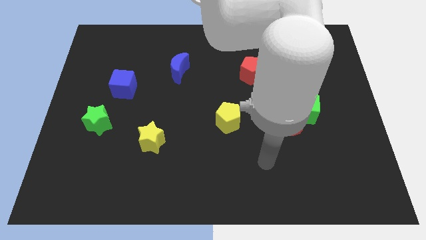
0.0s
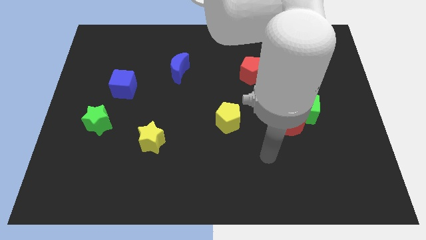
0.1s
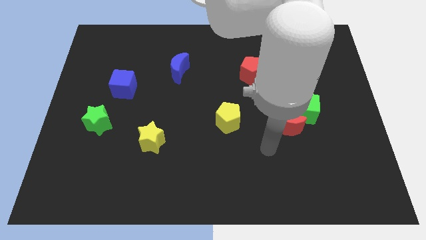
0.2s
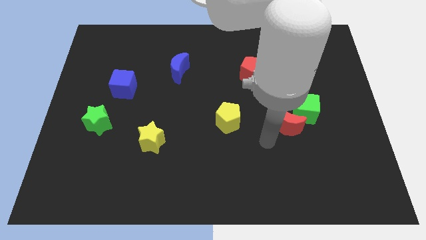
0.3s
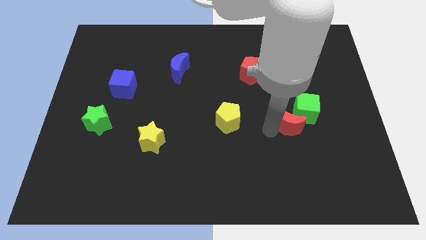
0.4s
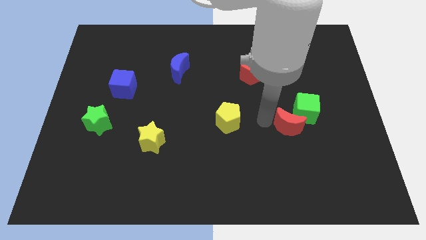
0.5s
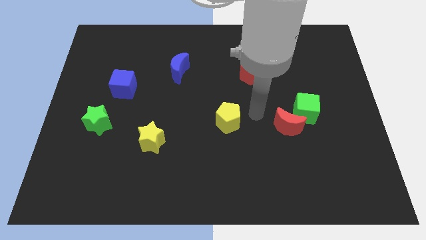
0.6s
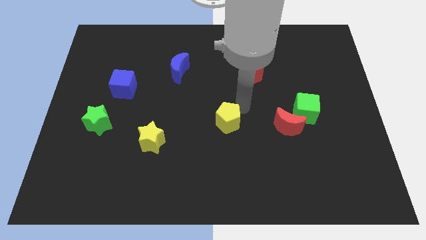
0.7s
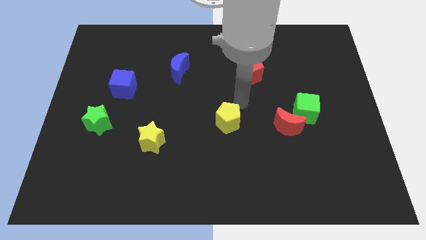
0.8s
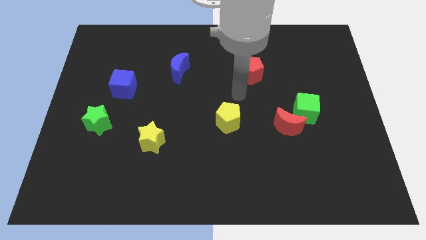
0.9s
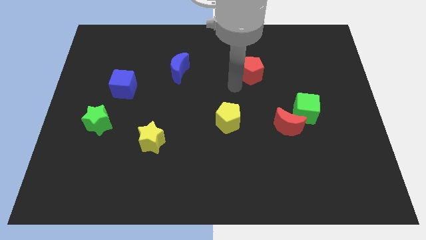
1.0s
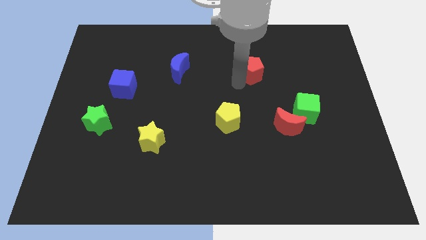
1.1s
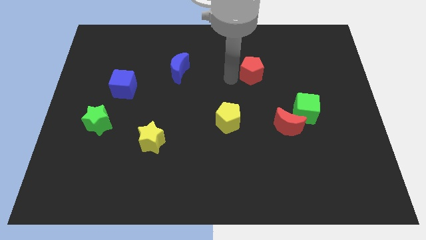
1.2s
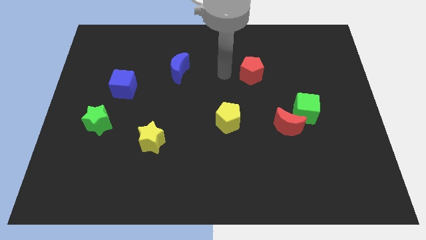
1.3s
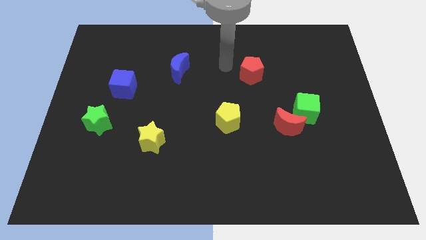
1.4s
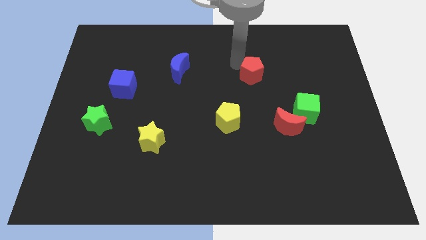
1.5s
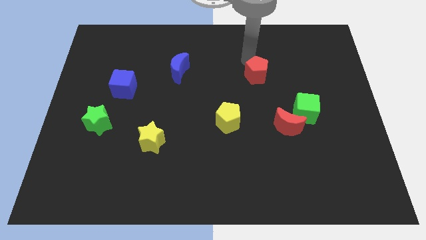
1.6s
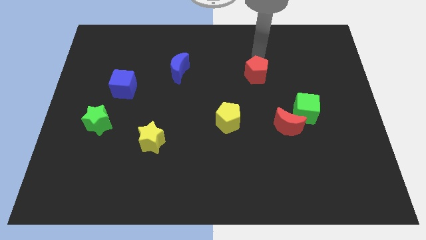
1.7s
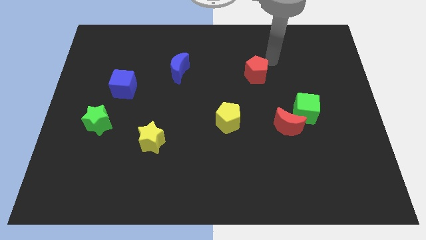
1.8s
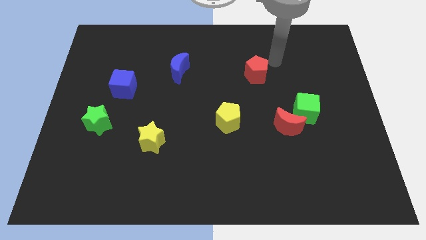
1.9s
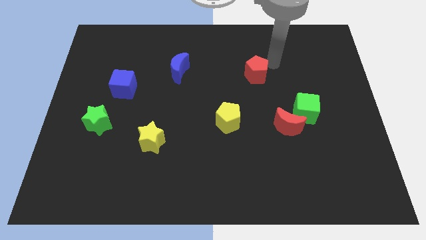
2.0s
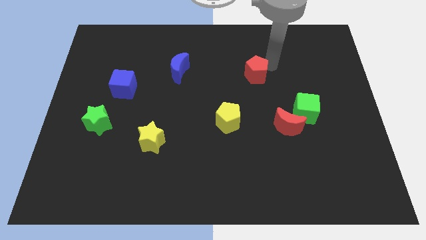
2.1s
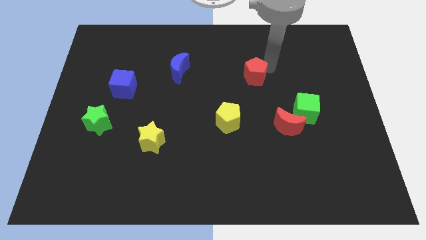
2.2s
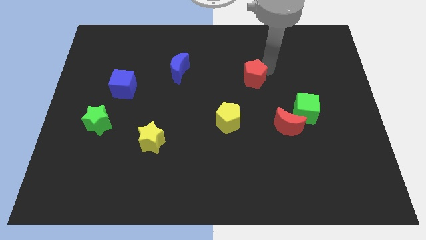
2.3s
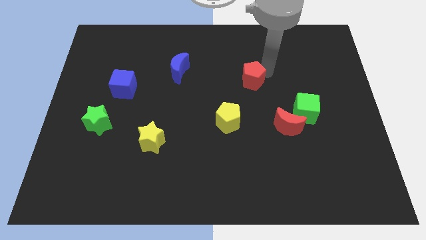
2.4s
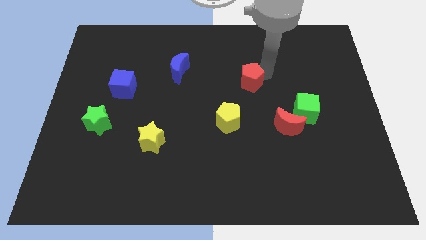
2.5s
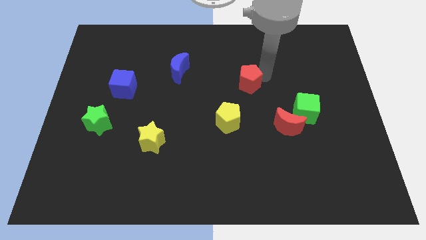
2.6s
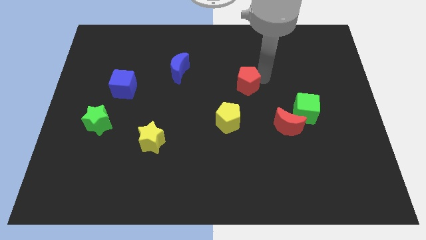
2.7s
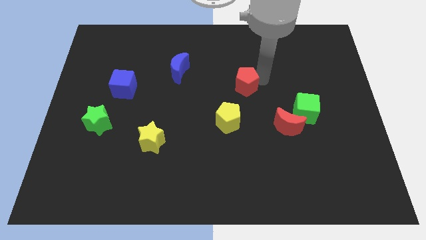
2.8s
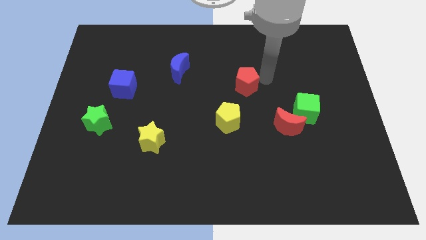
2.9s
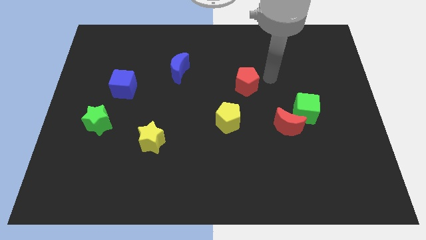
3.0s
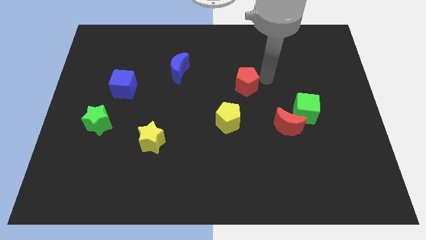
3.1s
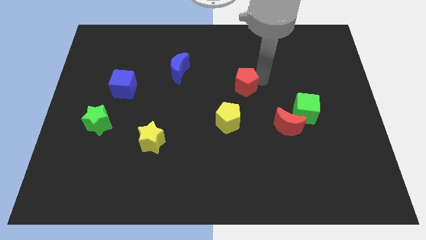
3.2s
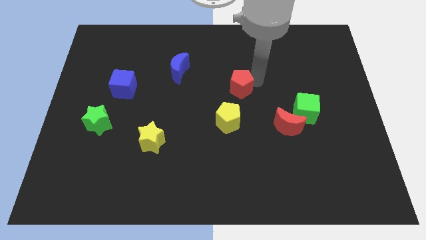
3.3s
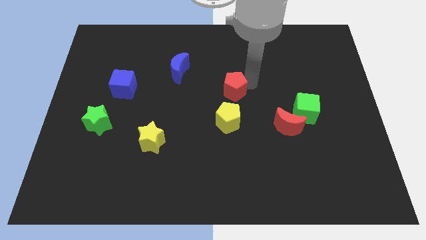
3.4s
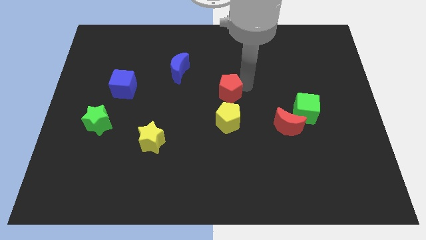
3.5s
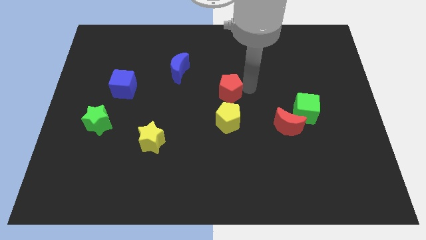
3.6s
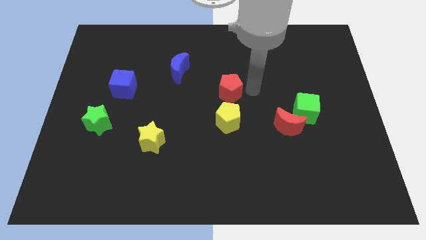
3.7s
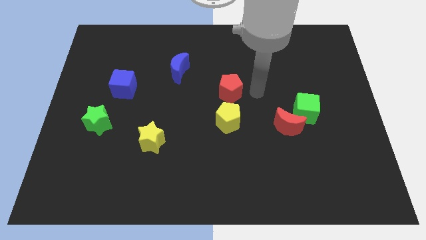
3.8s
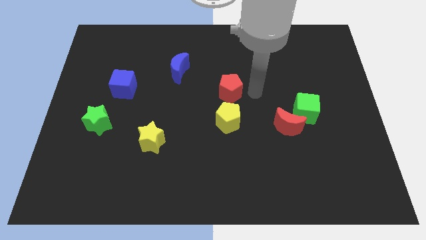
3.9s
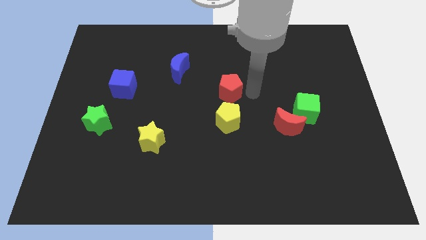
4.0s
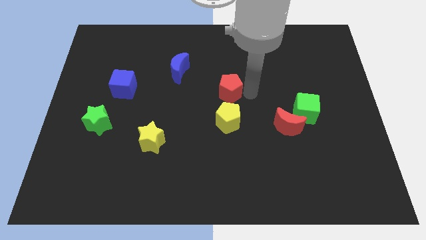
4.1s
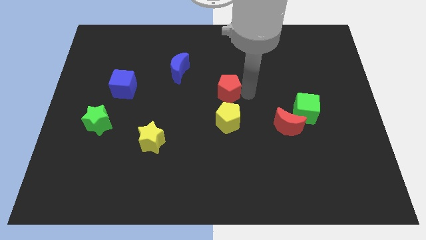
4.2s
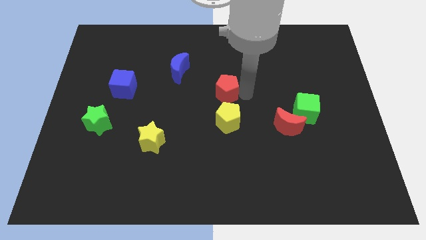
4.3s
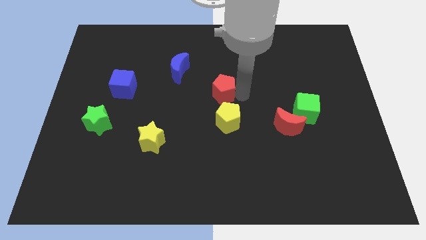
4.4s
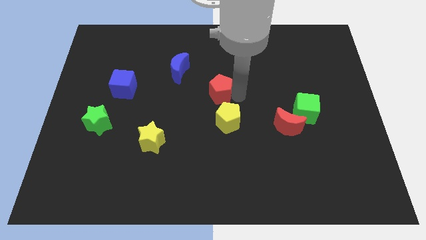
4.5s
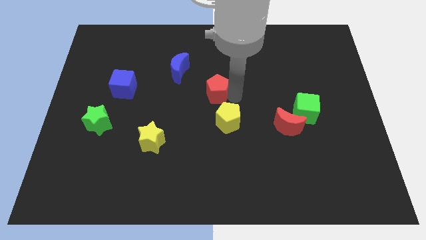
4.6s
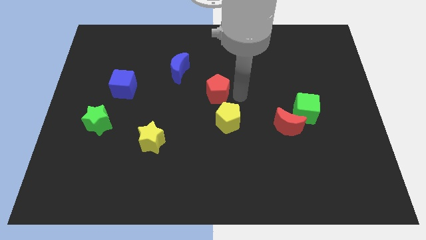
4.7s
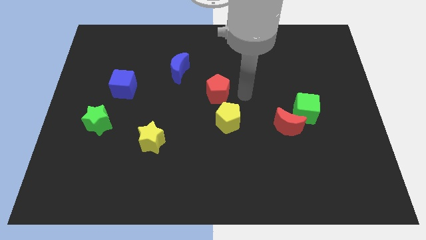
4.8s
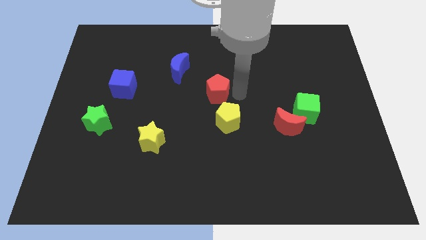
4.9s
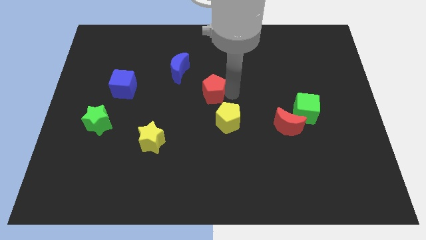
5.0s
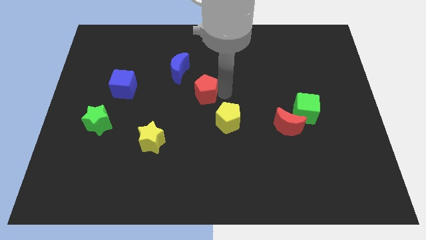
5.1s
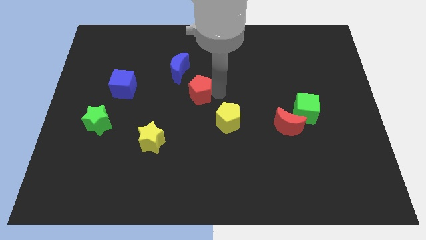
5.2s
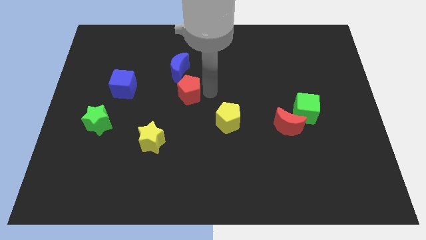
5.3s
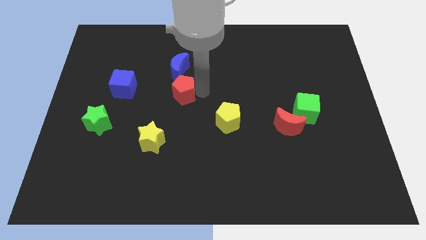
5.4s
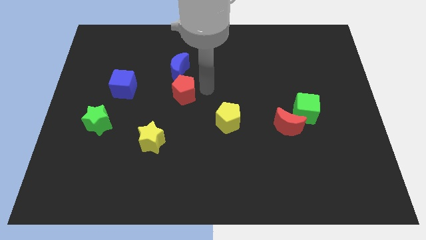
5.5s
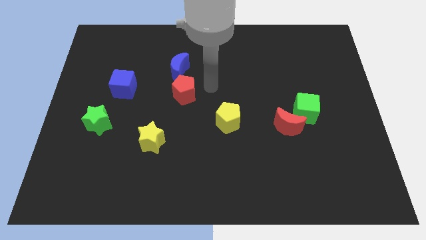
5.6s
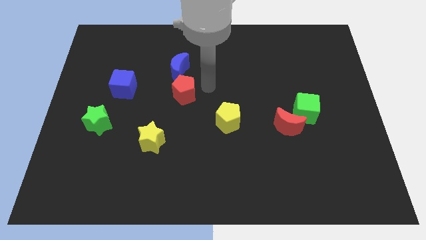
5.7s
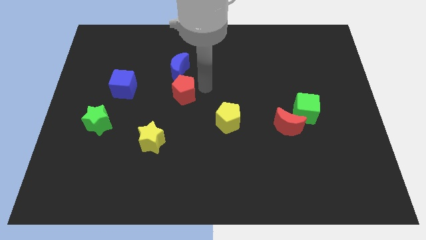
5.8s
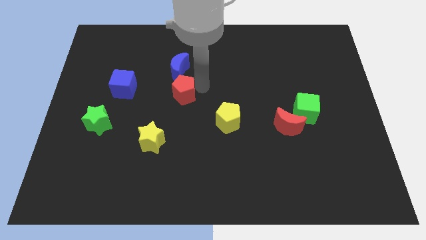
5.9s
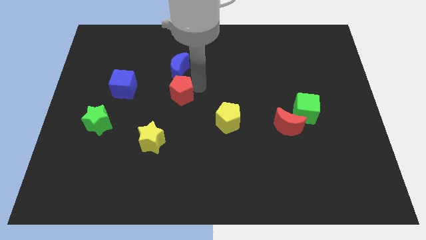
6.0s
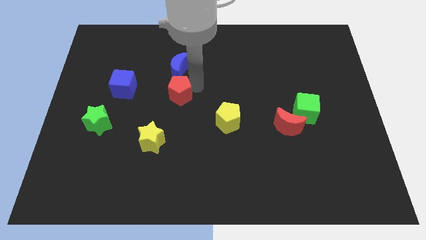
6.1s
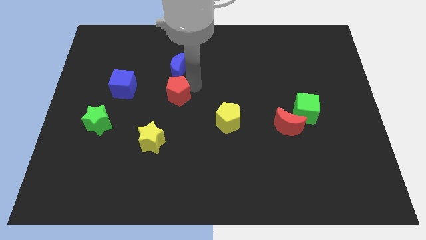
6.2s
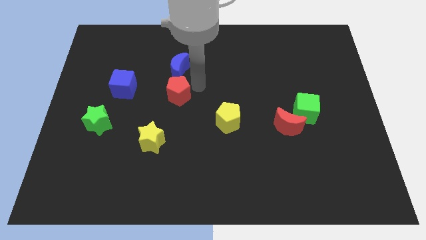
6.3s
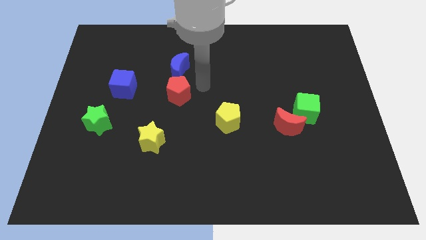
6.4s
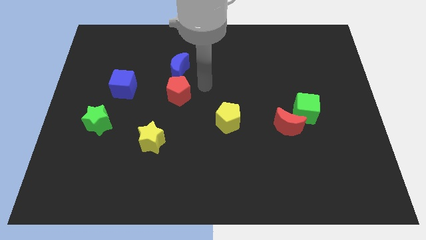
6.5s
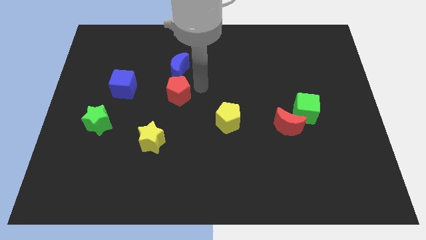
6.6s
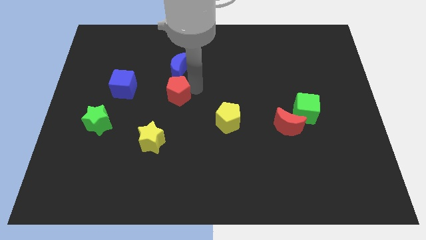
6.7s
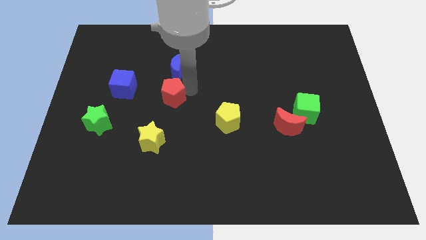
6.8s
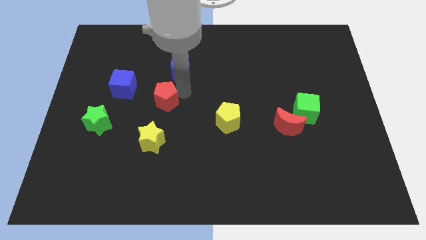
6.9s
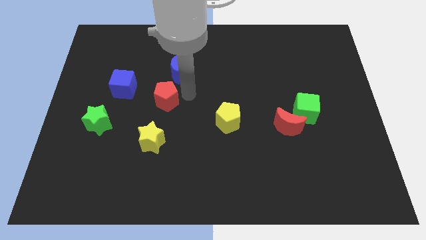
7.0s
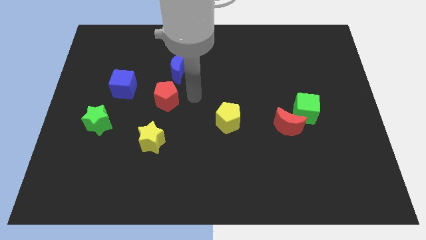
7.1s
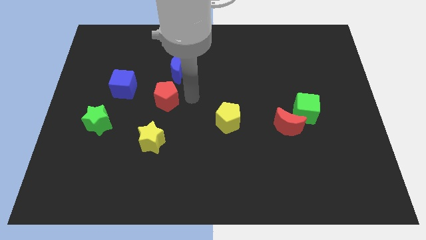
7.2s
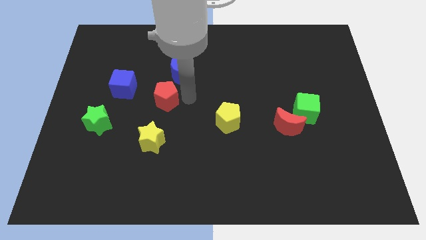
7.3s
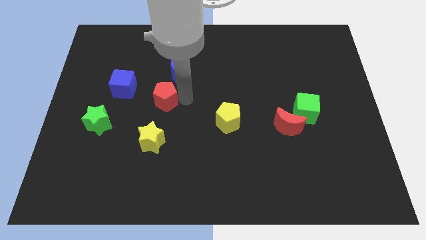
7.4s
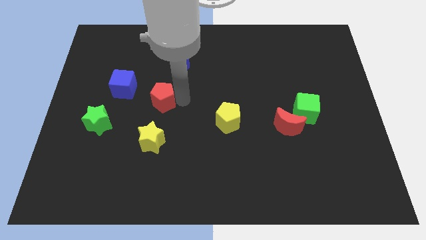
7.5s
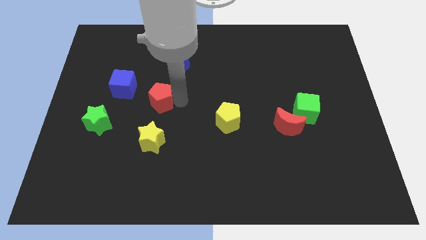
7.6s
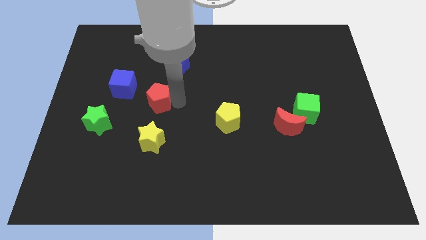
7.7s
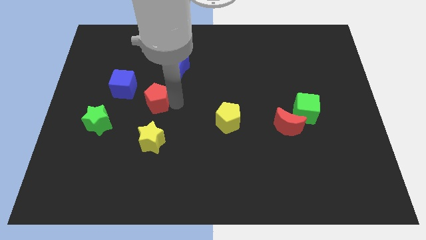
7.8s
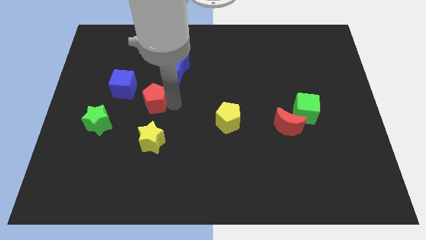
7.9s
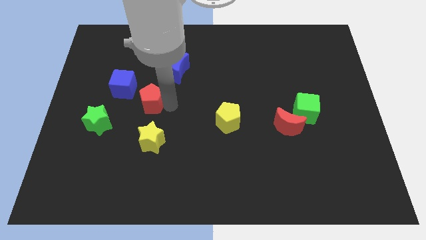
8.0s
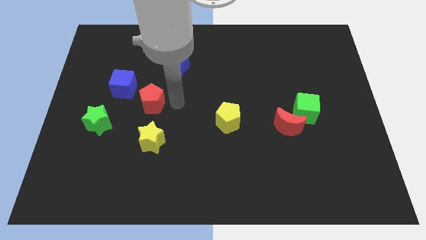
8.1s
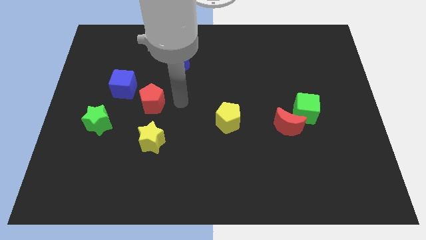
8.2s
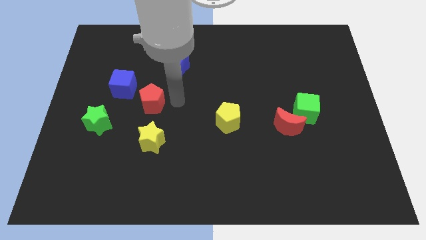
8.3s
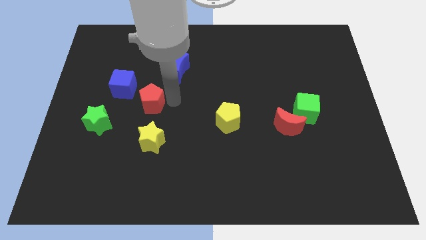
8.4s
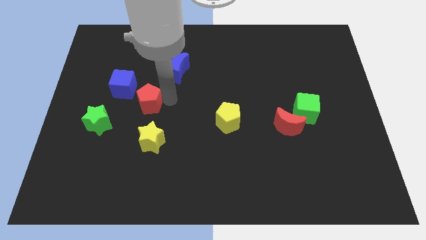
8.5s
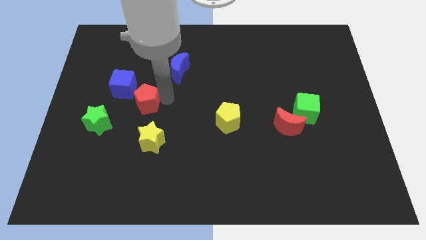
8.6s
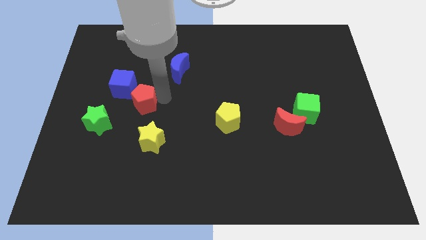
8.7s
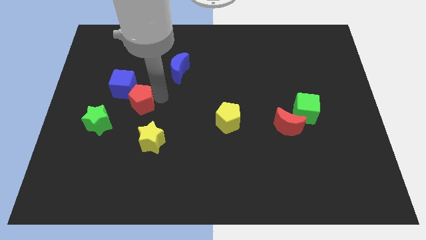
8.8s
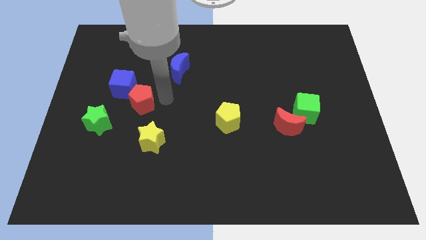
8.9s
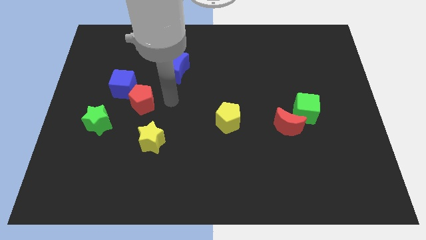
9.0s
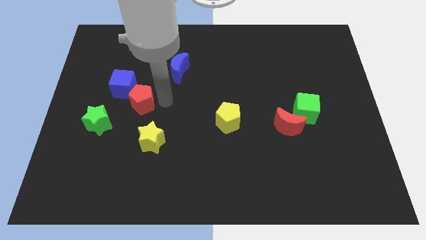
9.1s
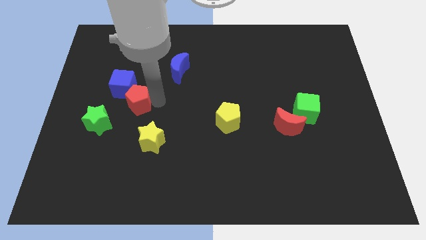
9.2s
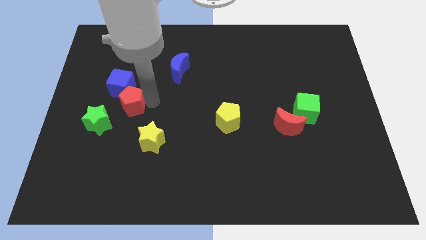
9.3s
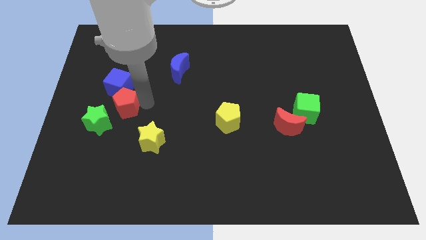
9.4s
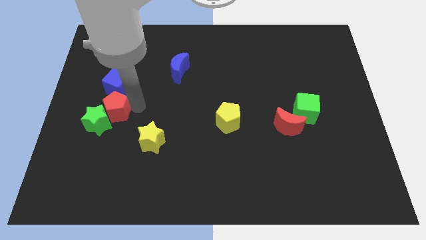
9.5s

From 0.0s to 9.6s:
put the red pentagon above the green star
